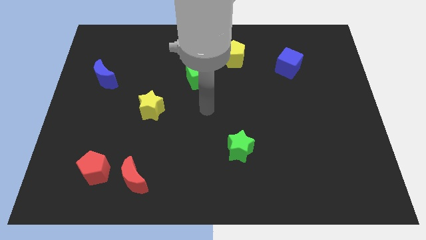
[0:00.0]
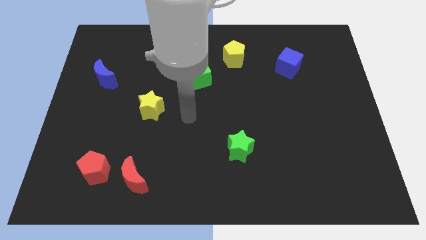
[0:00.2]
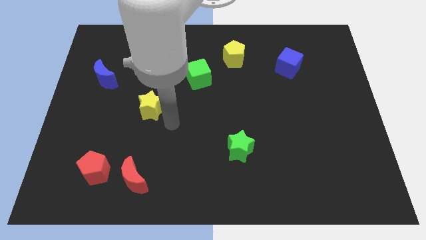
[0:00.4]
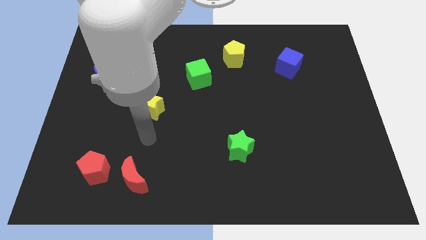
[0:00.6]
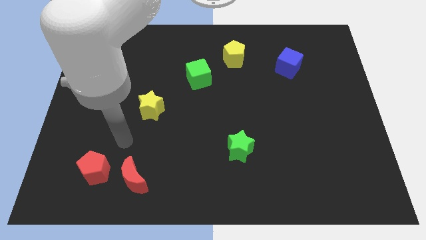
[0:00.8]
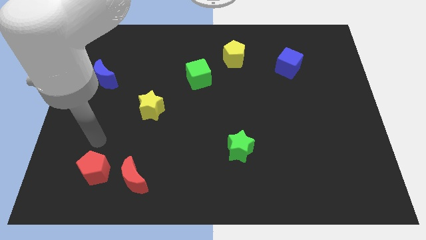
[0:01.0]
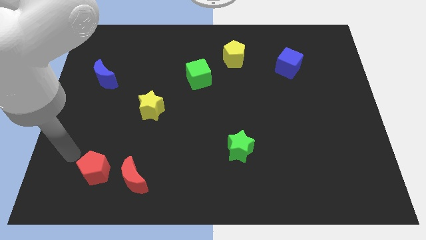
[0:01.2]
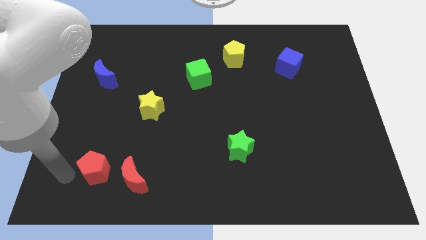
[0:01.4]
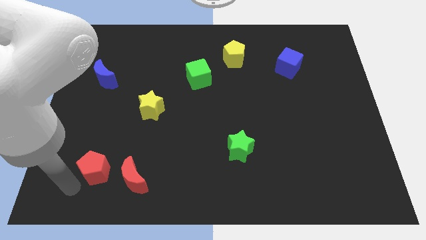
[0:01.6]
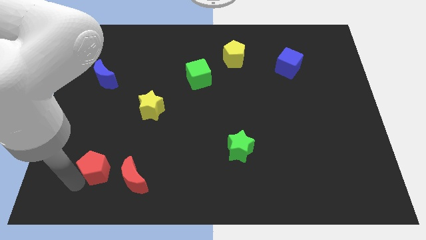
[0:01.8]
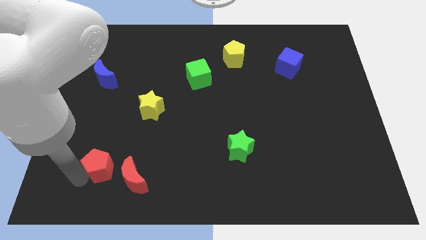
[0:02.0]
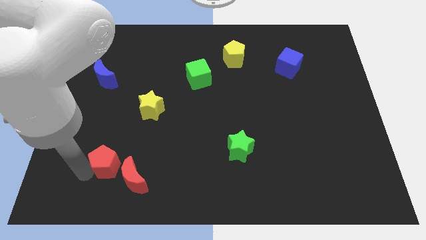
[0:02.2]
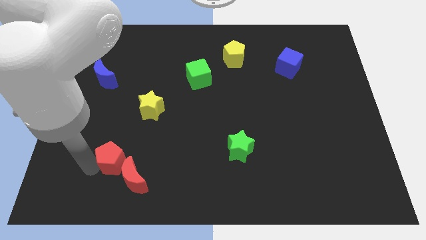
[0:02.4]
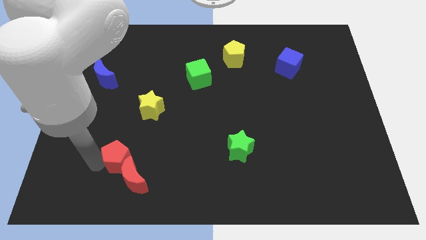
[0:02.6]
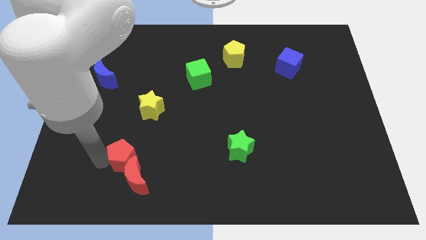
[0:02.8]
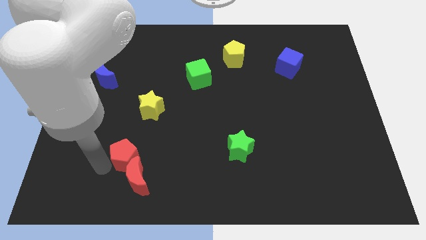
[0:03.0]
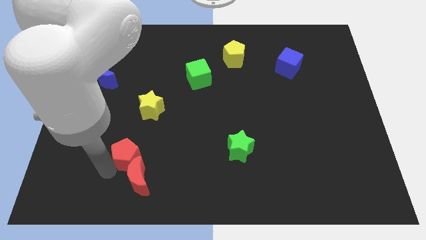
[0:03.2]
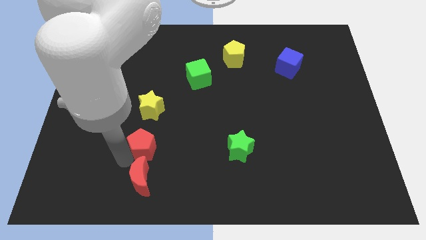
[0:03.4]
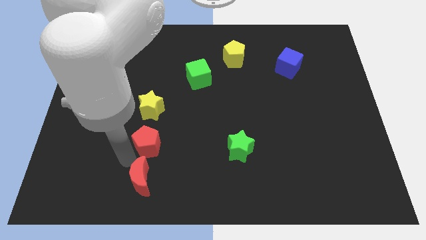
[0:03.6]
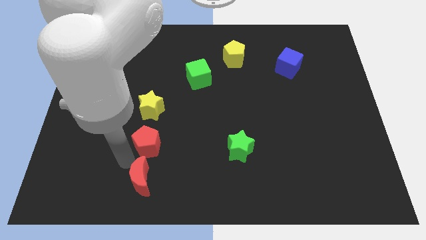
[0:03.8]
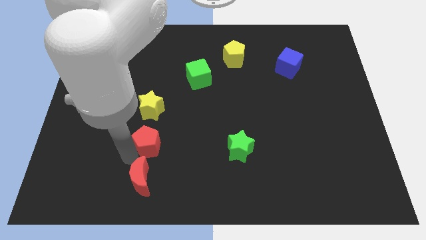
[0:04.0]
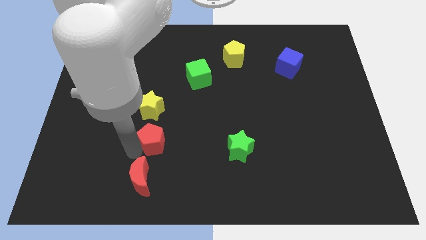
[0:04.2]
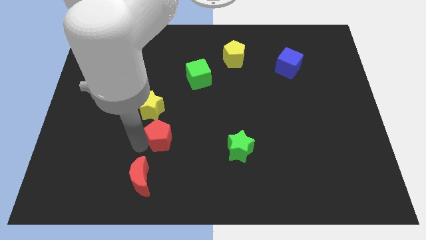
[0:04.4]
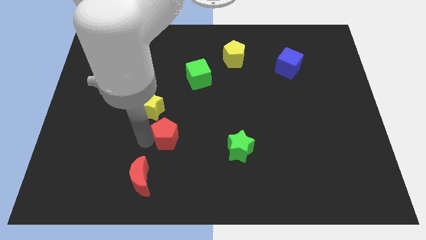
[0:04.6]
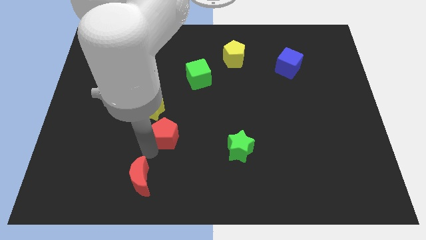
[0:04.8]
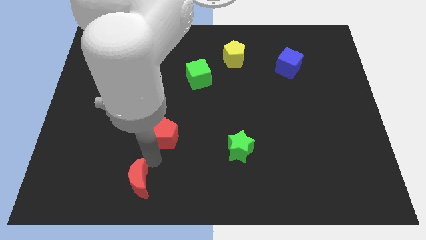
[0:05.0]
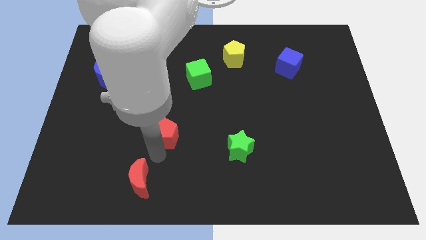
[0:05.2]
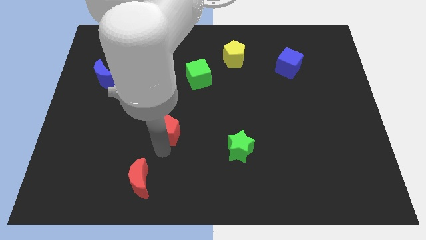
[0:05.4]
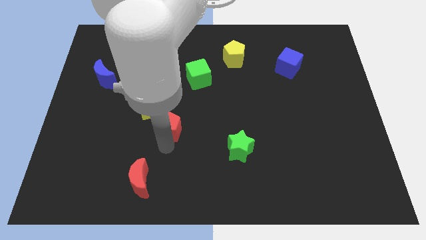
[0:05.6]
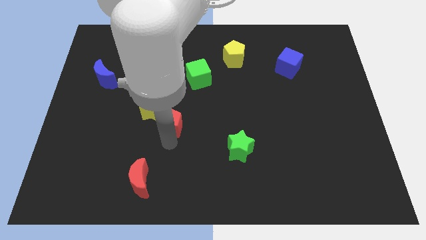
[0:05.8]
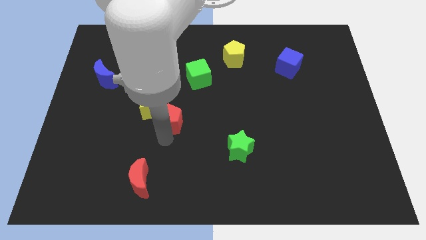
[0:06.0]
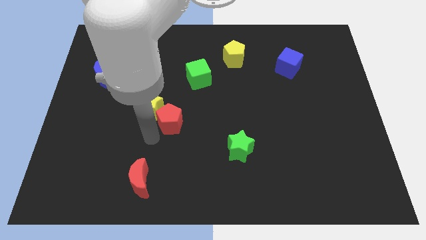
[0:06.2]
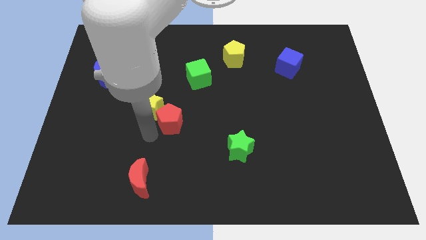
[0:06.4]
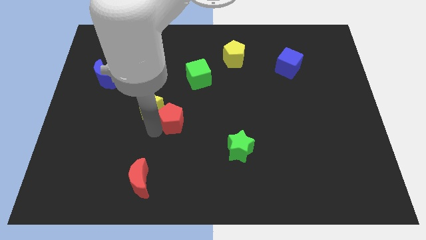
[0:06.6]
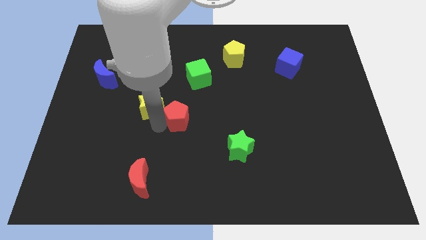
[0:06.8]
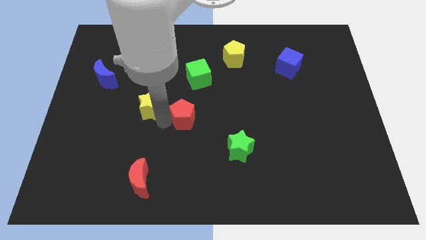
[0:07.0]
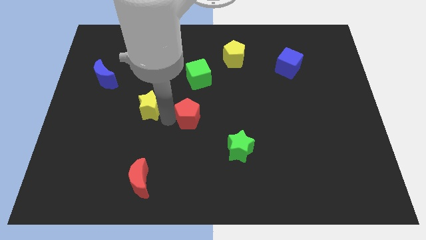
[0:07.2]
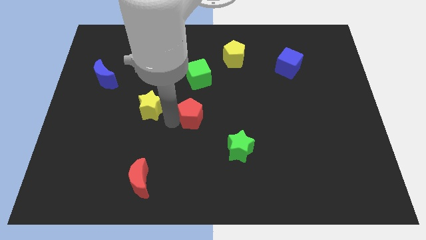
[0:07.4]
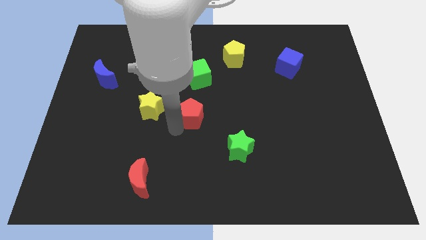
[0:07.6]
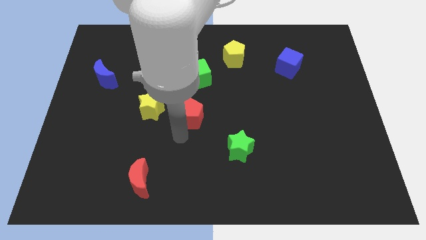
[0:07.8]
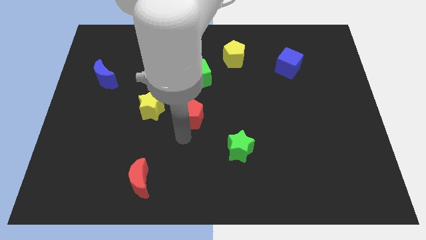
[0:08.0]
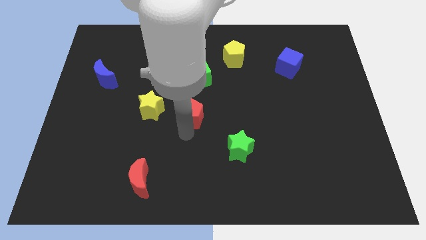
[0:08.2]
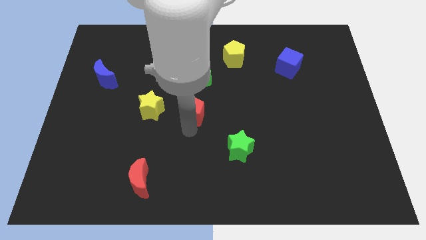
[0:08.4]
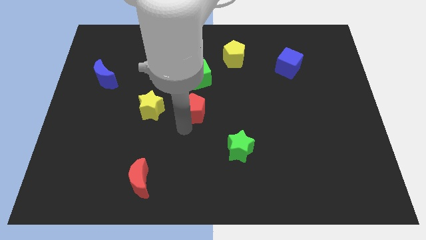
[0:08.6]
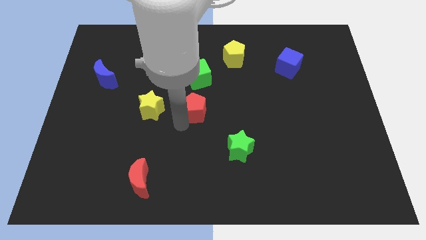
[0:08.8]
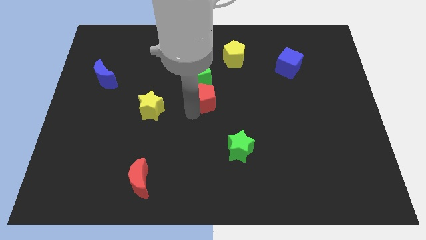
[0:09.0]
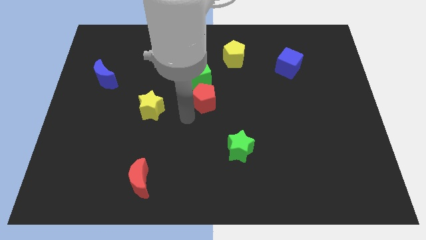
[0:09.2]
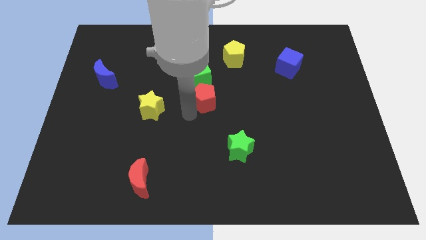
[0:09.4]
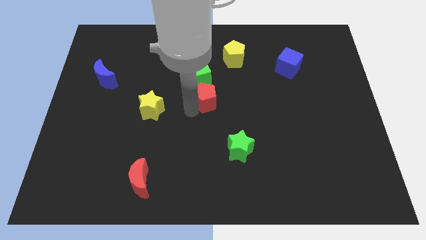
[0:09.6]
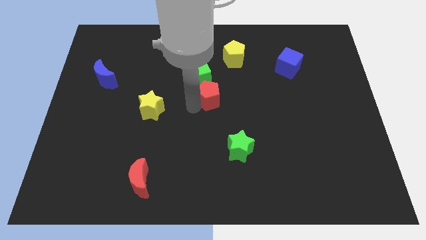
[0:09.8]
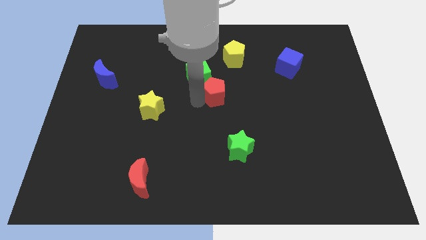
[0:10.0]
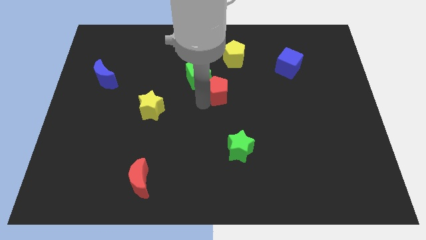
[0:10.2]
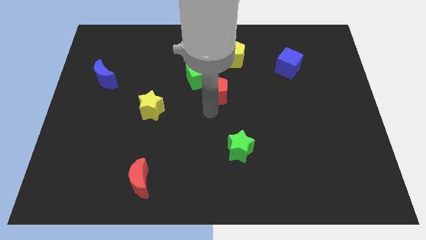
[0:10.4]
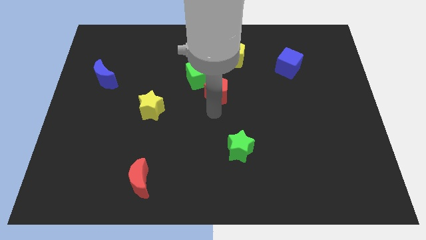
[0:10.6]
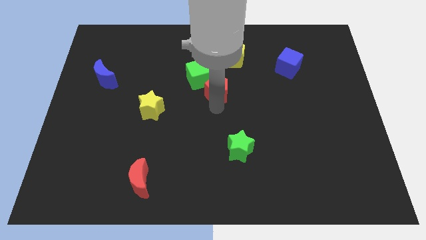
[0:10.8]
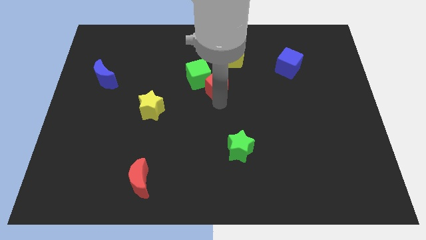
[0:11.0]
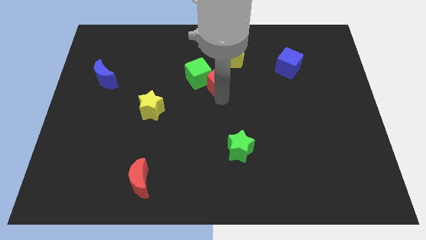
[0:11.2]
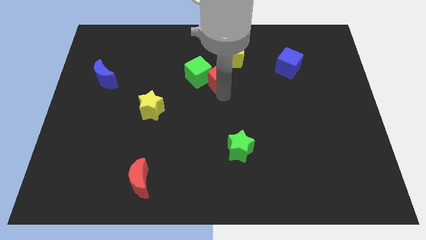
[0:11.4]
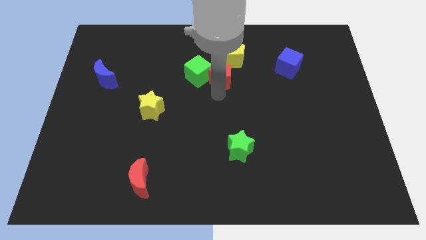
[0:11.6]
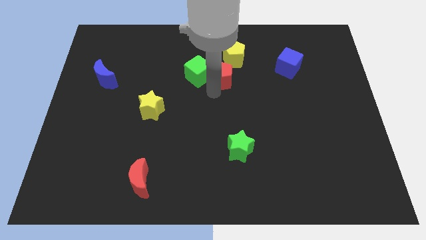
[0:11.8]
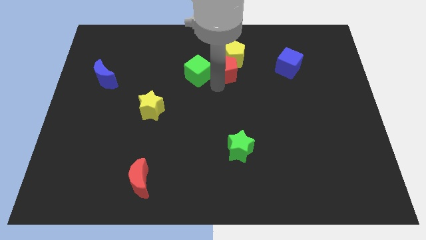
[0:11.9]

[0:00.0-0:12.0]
push the red pentagon towards the yellow pentagon
